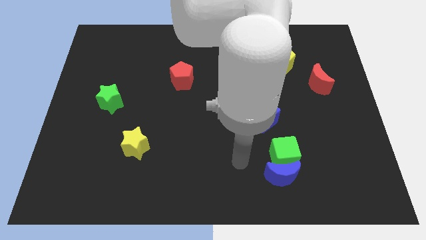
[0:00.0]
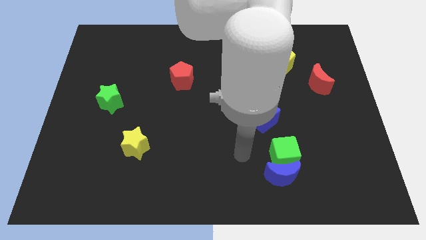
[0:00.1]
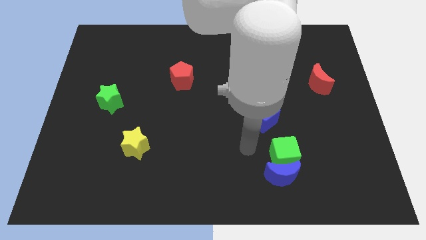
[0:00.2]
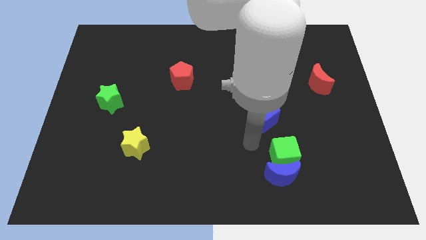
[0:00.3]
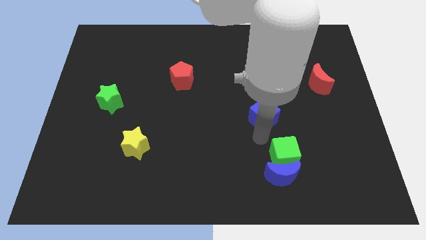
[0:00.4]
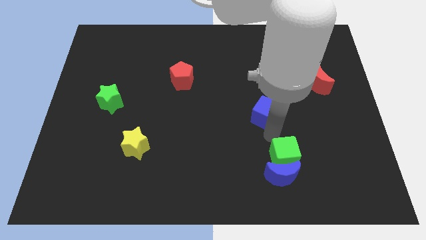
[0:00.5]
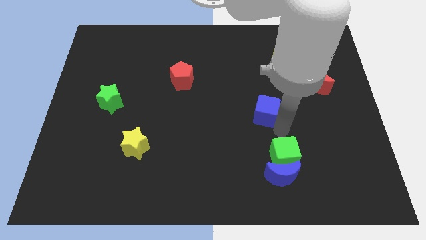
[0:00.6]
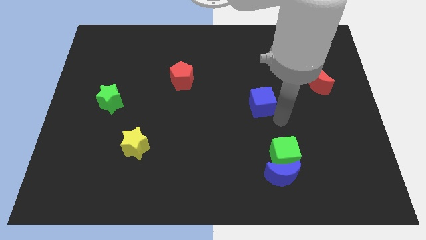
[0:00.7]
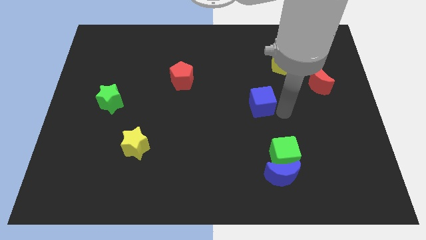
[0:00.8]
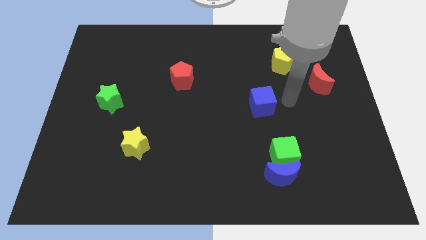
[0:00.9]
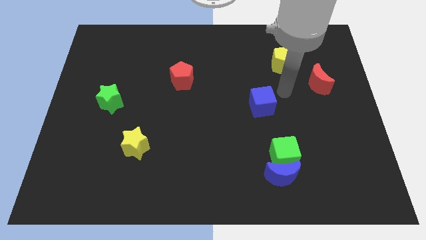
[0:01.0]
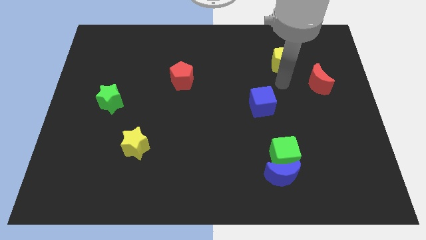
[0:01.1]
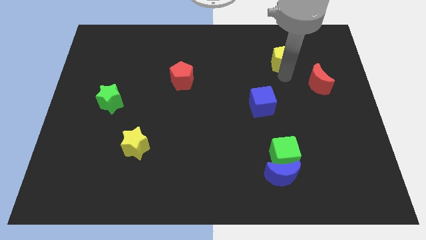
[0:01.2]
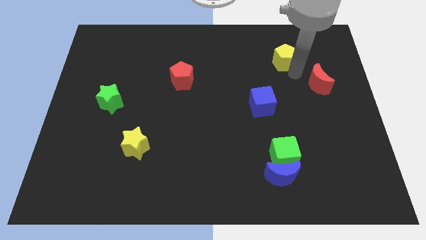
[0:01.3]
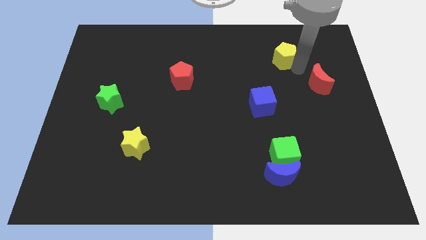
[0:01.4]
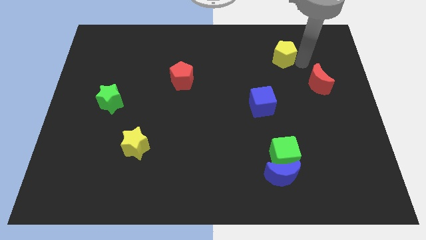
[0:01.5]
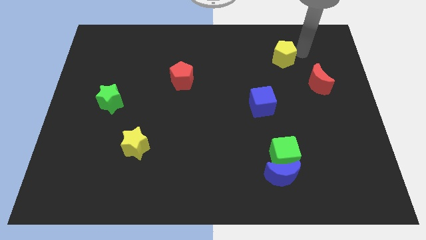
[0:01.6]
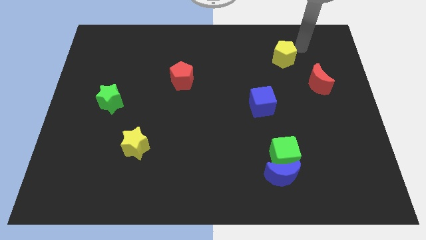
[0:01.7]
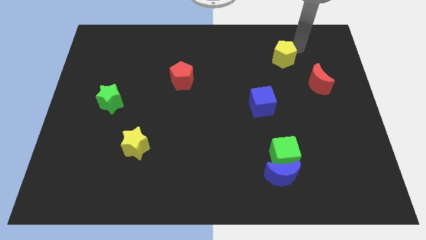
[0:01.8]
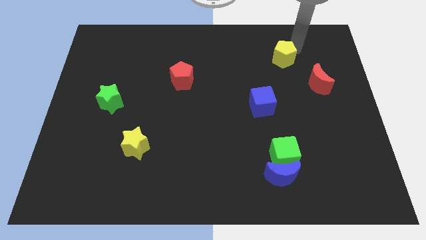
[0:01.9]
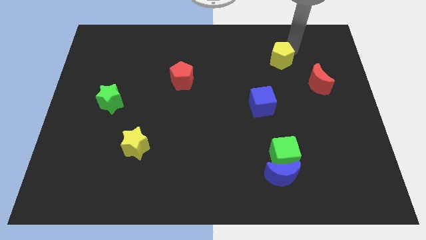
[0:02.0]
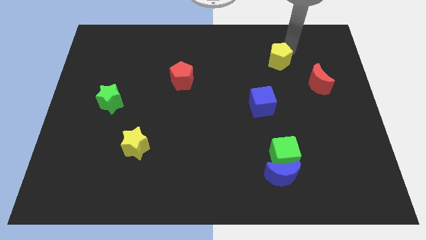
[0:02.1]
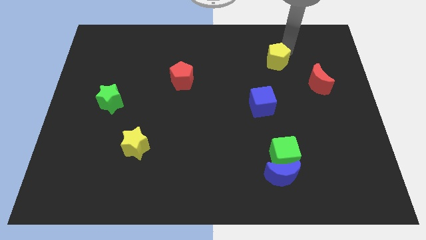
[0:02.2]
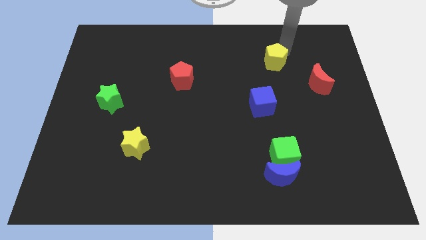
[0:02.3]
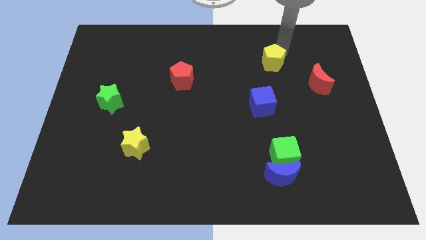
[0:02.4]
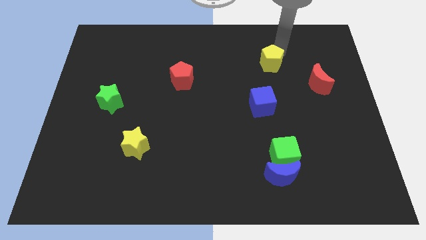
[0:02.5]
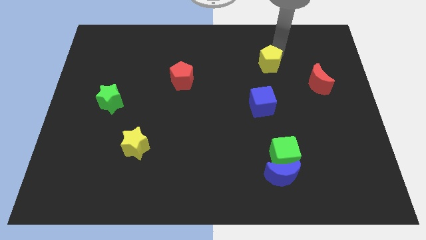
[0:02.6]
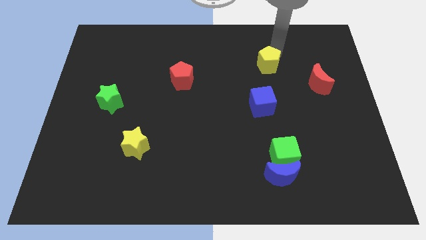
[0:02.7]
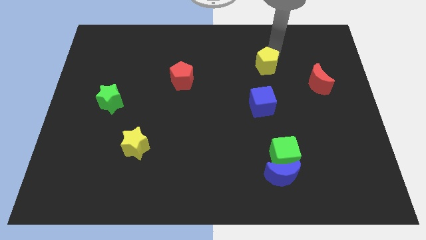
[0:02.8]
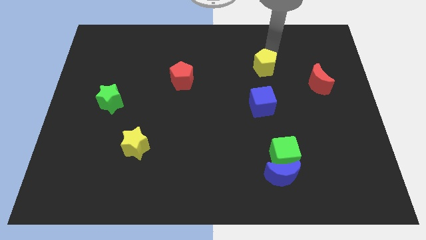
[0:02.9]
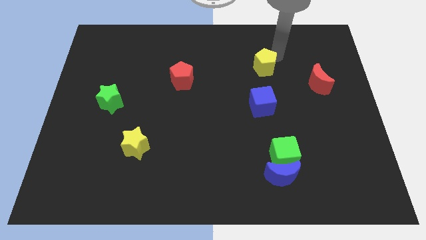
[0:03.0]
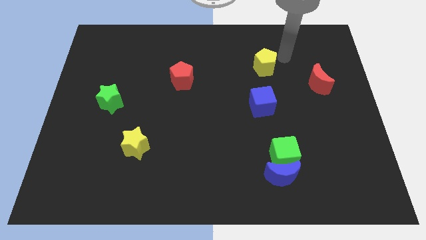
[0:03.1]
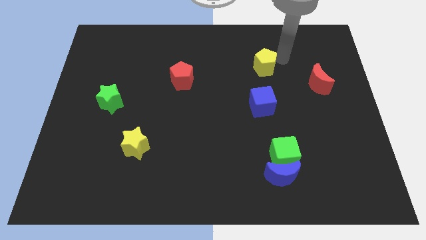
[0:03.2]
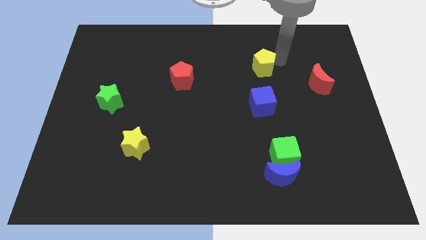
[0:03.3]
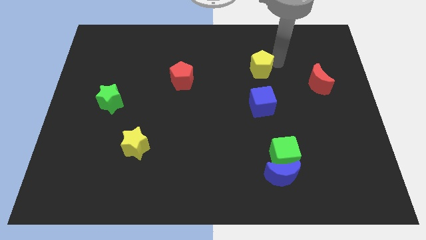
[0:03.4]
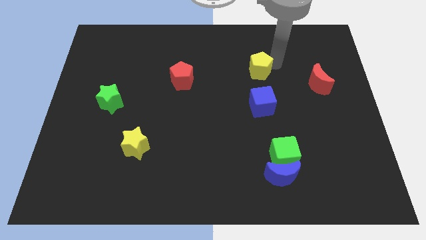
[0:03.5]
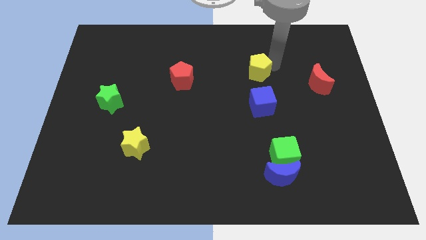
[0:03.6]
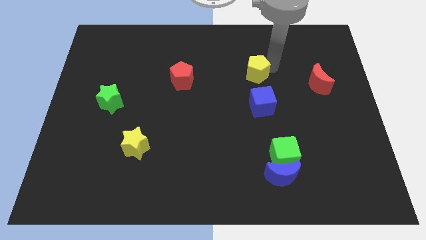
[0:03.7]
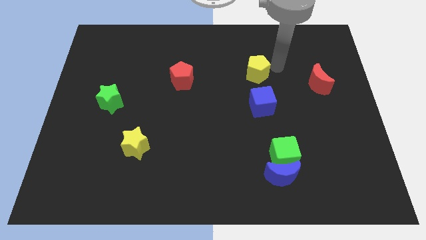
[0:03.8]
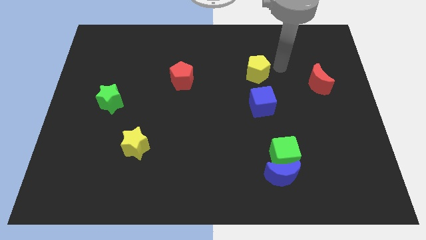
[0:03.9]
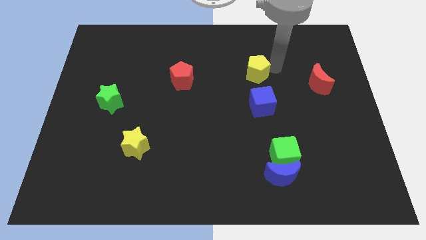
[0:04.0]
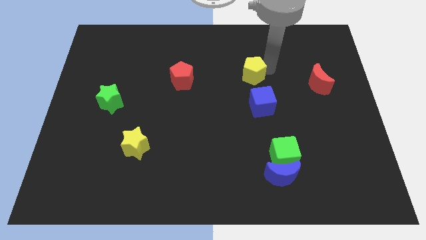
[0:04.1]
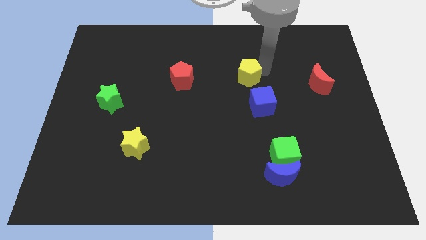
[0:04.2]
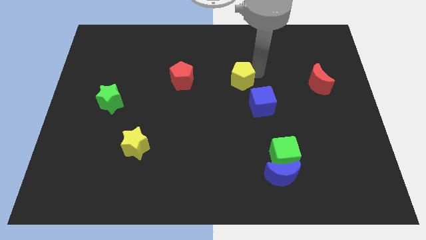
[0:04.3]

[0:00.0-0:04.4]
push the yellow pentagon to the right of the red pentagon

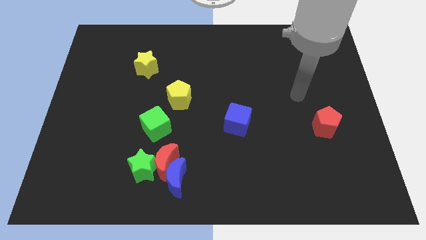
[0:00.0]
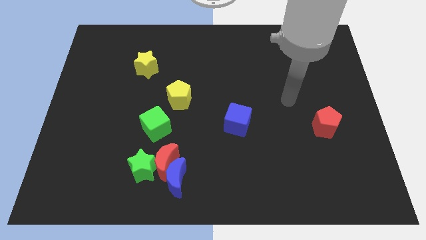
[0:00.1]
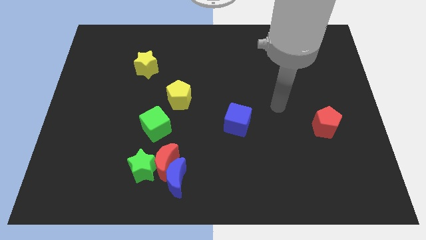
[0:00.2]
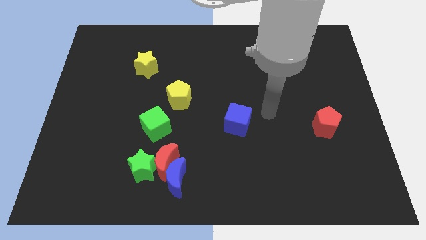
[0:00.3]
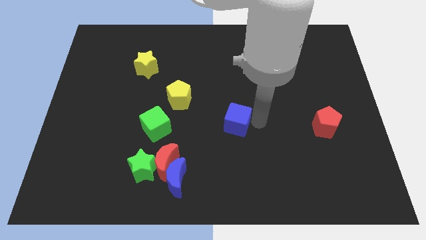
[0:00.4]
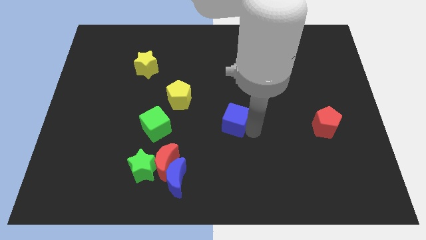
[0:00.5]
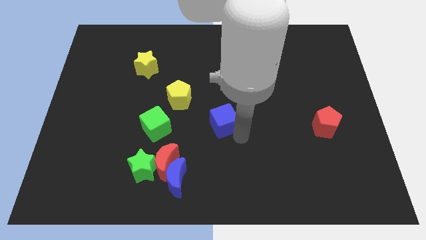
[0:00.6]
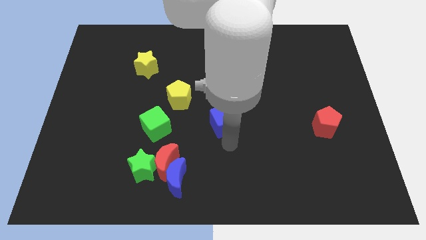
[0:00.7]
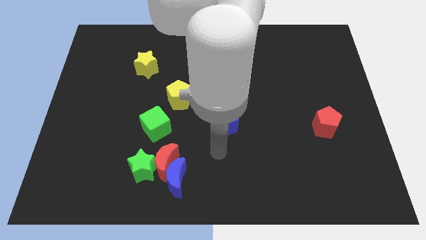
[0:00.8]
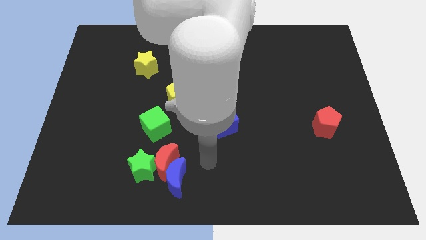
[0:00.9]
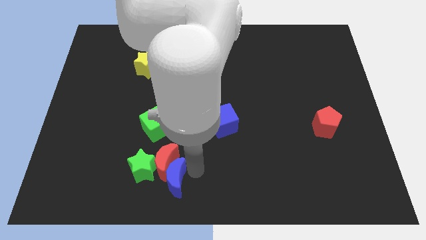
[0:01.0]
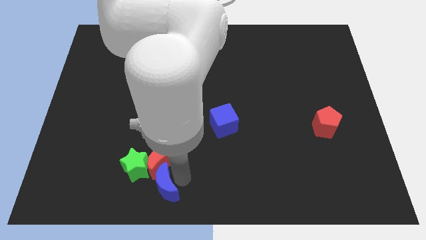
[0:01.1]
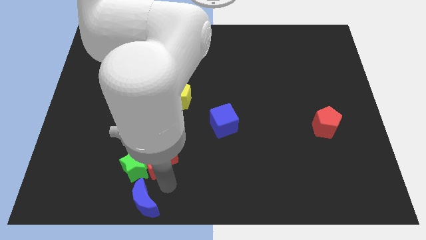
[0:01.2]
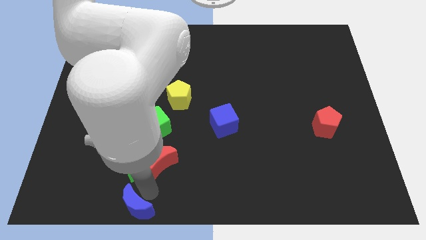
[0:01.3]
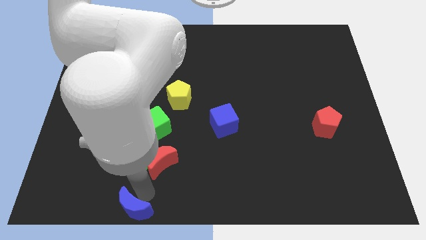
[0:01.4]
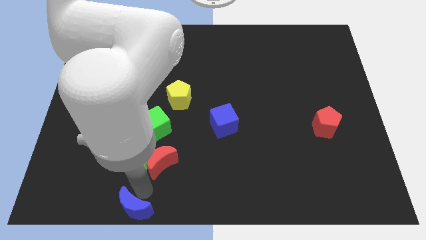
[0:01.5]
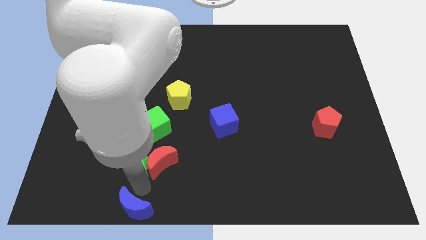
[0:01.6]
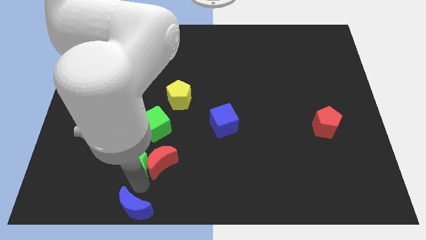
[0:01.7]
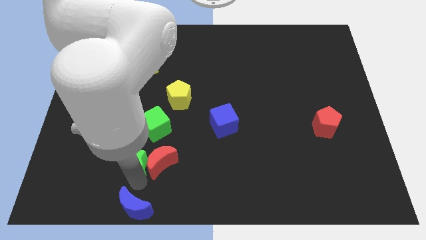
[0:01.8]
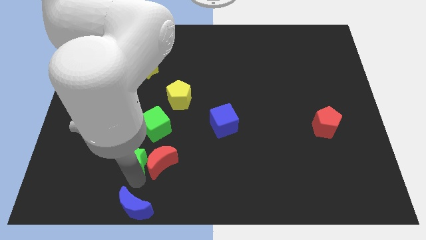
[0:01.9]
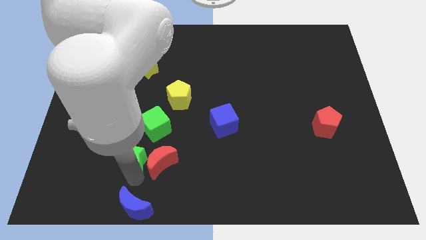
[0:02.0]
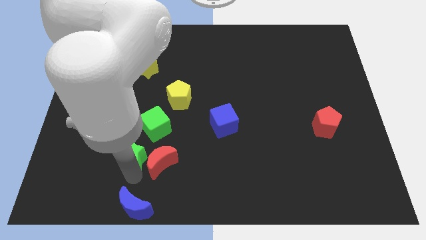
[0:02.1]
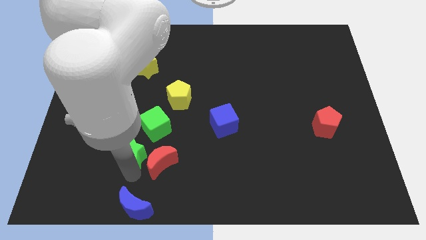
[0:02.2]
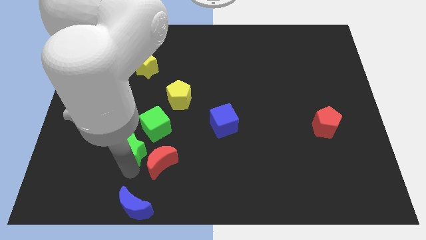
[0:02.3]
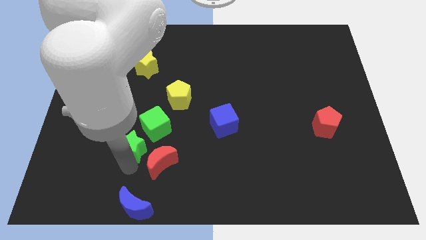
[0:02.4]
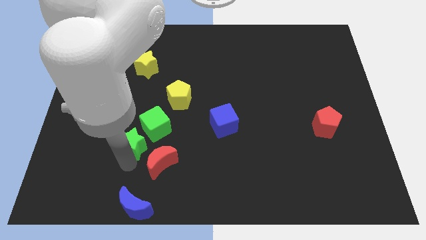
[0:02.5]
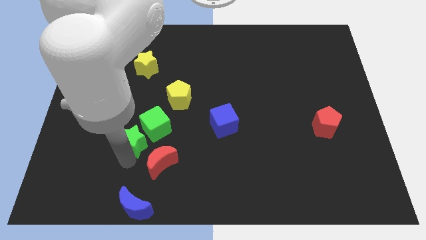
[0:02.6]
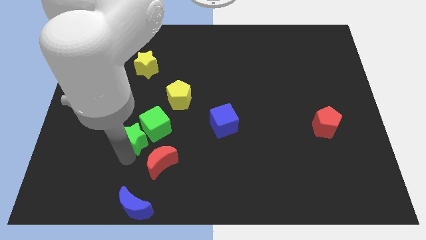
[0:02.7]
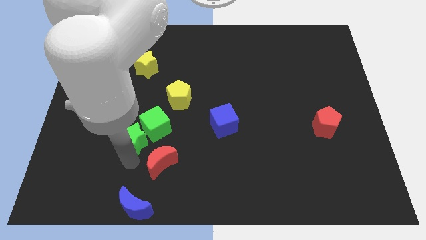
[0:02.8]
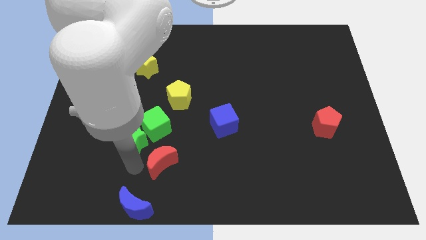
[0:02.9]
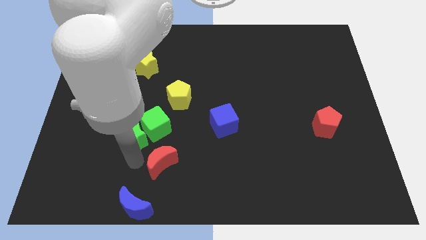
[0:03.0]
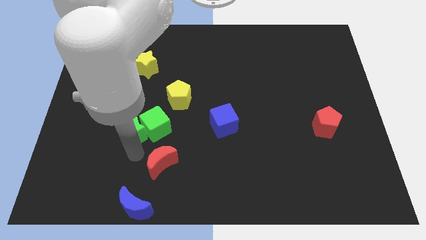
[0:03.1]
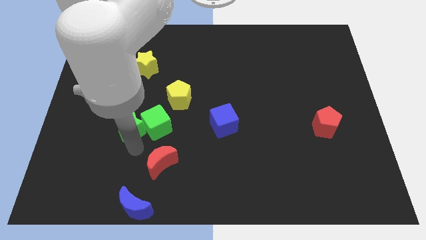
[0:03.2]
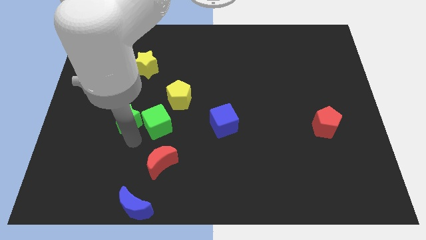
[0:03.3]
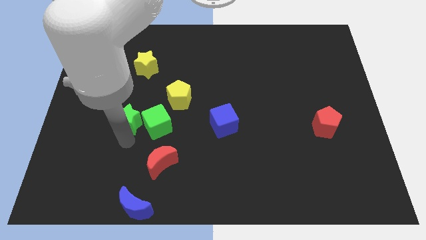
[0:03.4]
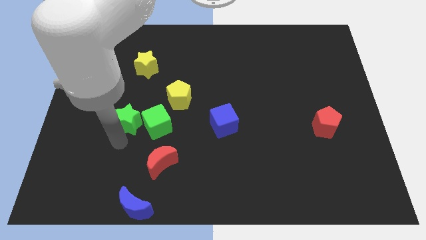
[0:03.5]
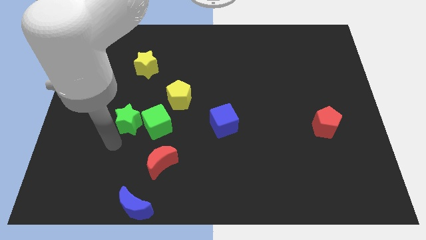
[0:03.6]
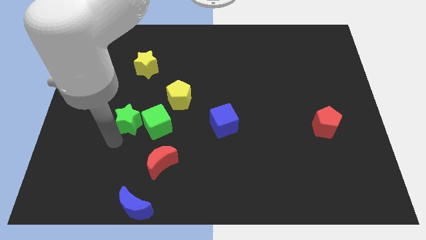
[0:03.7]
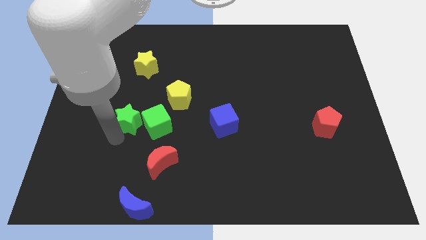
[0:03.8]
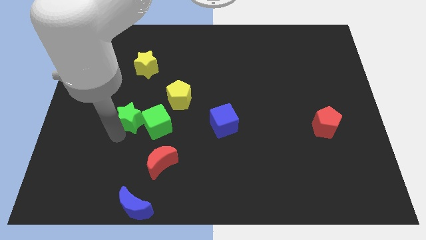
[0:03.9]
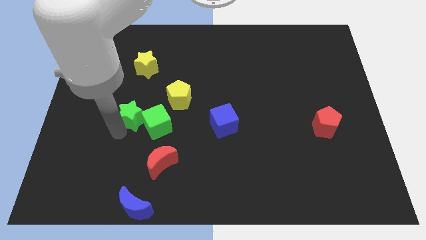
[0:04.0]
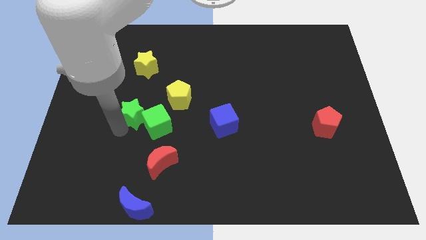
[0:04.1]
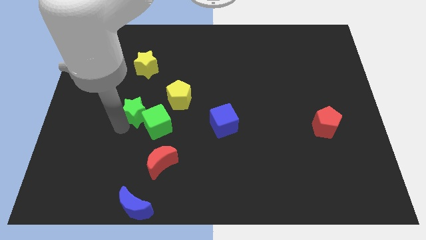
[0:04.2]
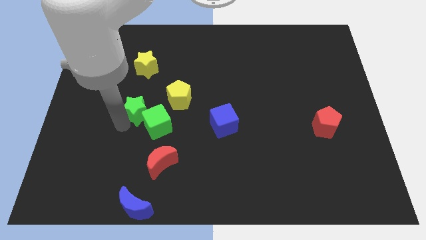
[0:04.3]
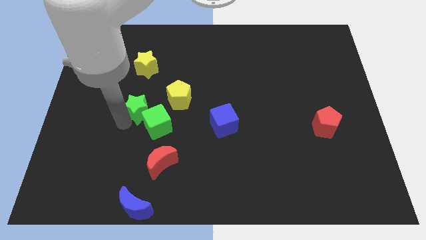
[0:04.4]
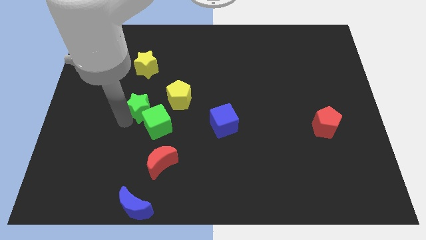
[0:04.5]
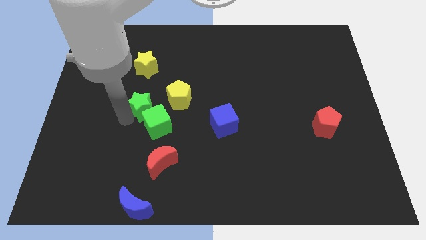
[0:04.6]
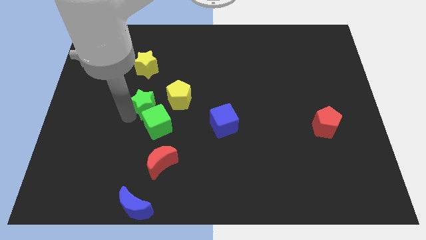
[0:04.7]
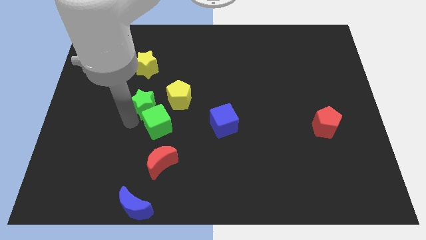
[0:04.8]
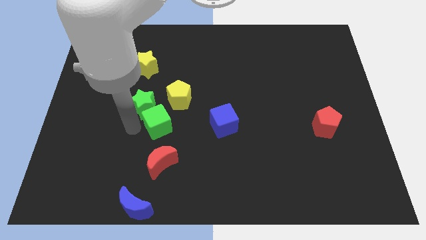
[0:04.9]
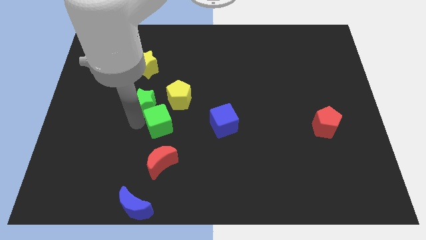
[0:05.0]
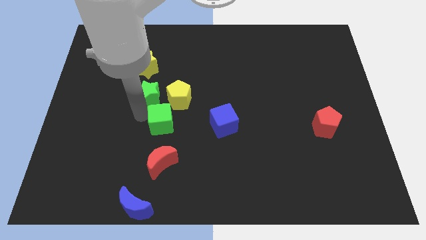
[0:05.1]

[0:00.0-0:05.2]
move the green star diagonally up and to the left of the yellow pentagon
